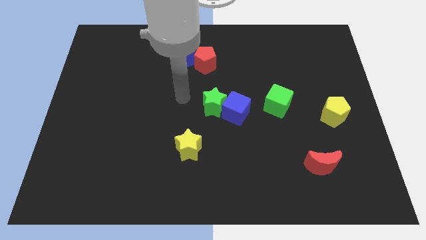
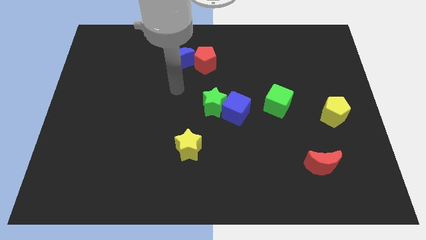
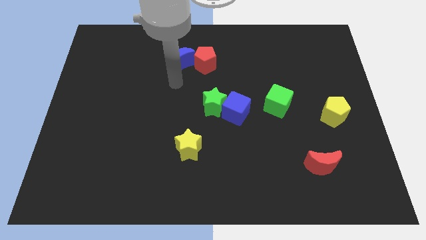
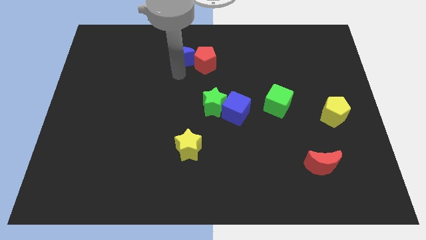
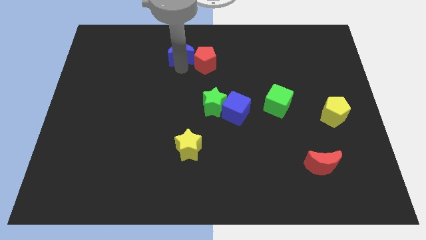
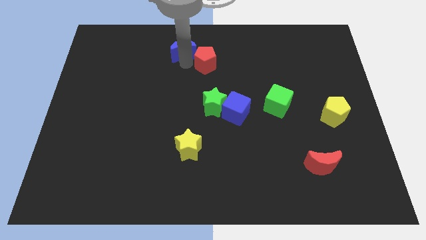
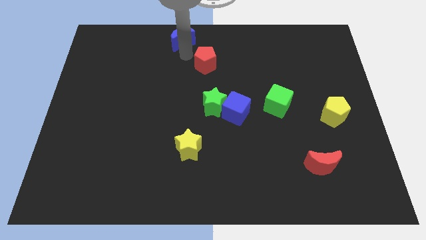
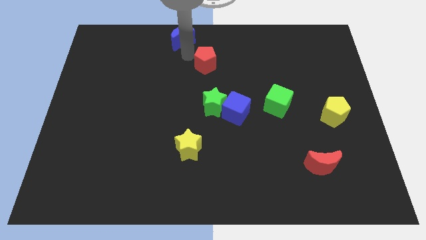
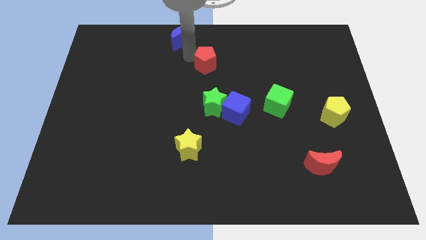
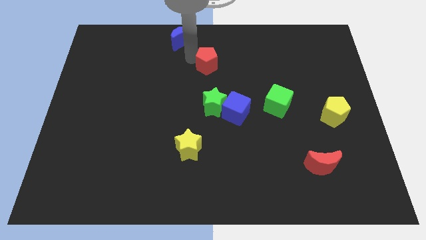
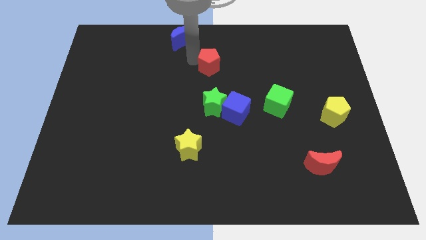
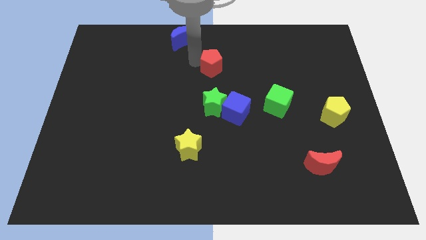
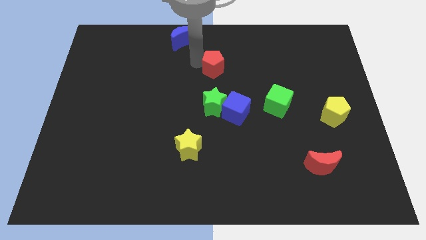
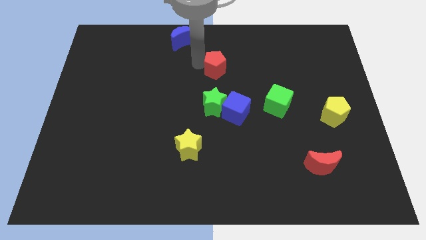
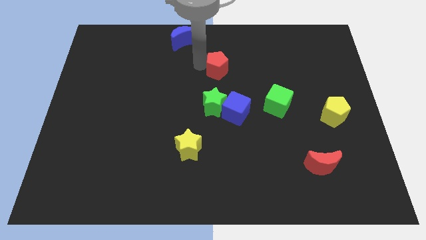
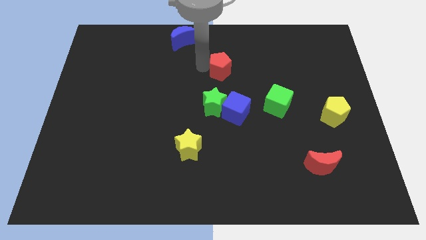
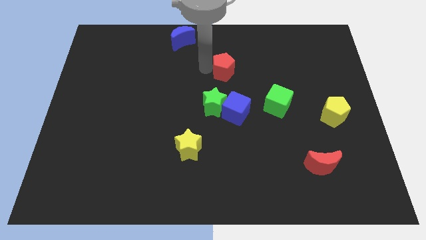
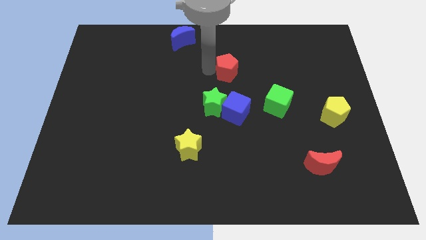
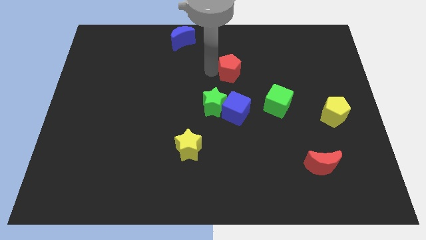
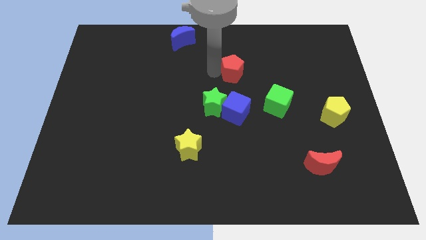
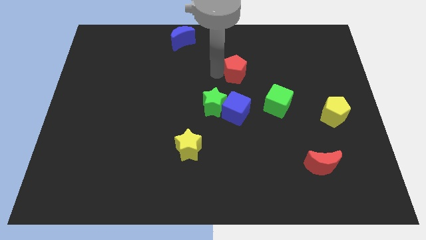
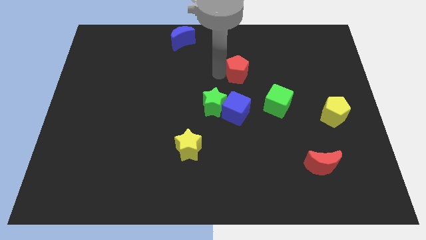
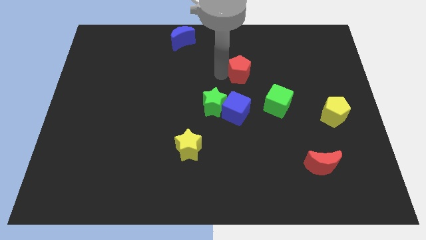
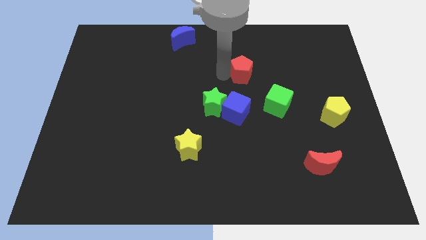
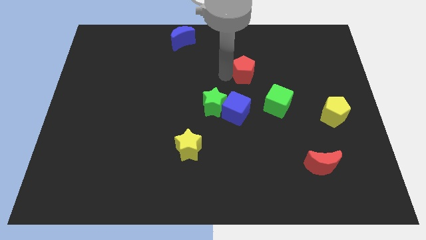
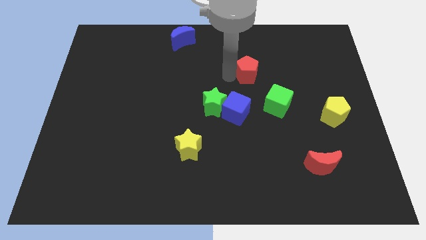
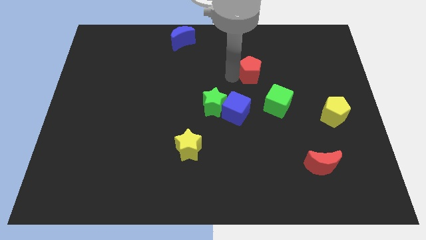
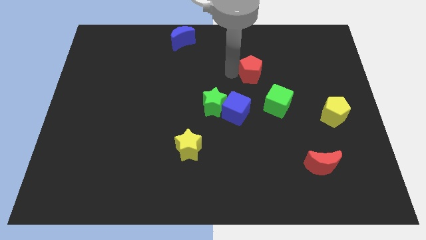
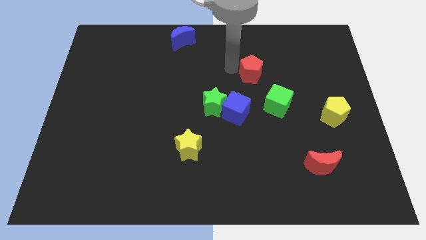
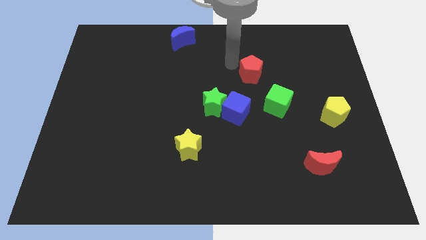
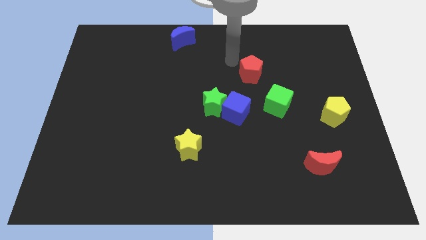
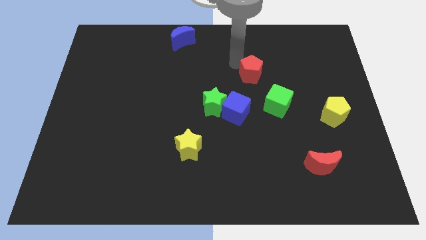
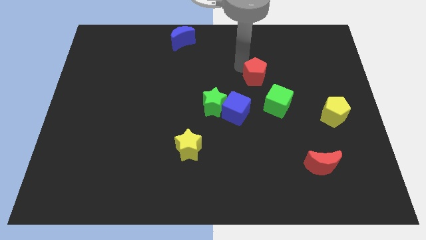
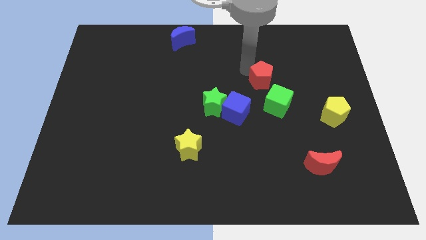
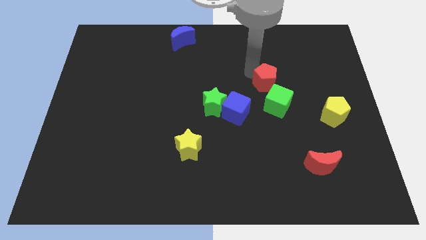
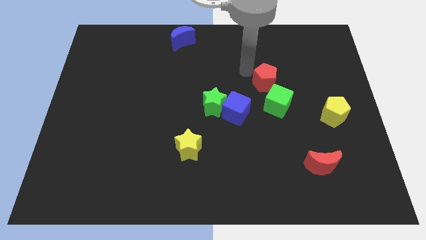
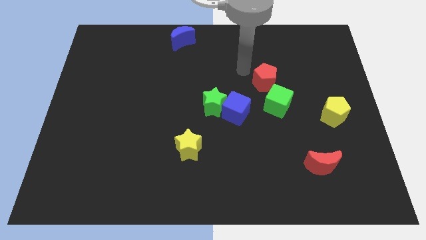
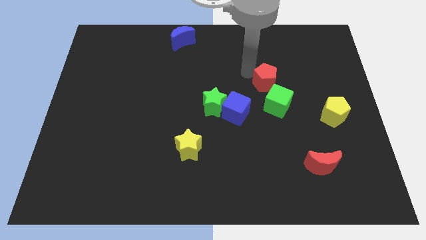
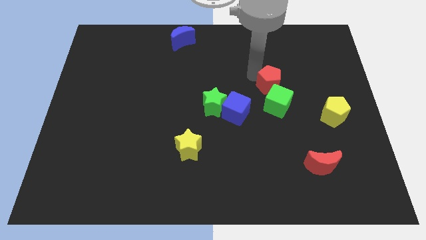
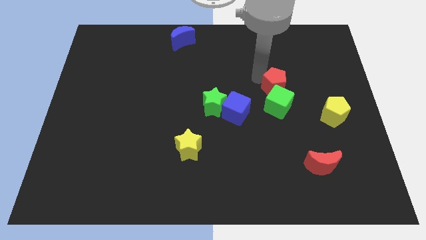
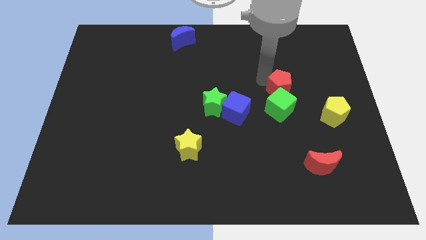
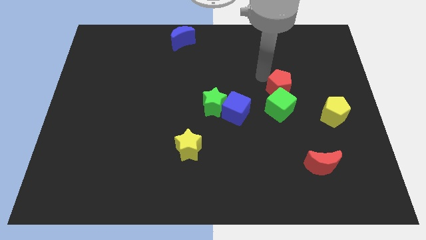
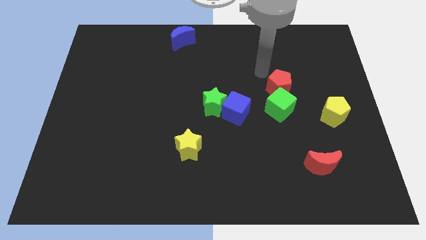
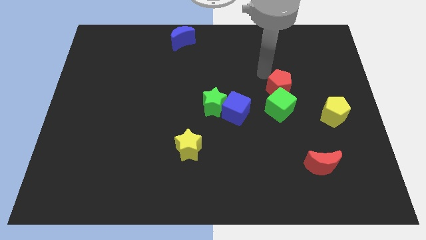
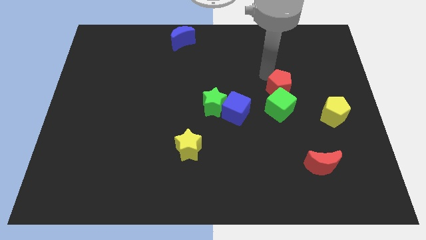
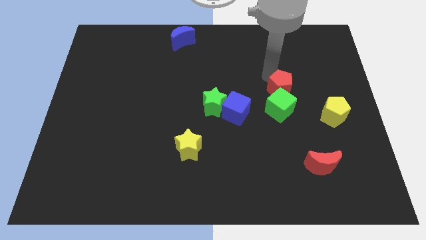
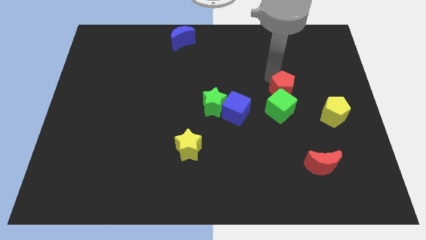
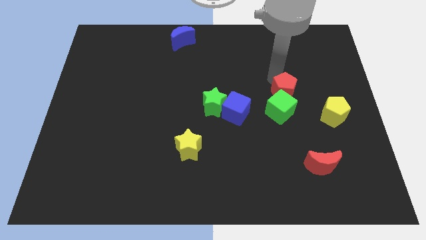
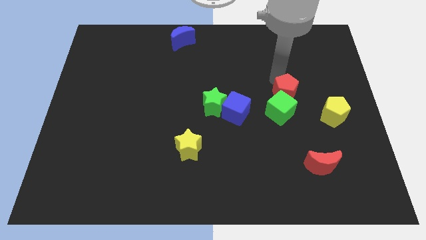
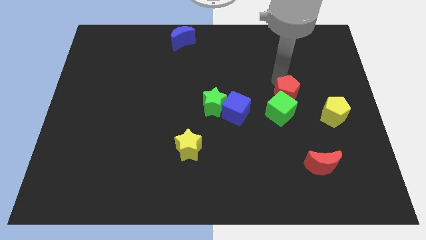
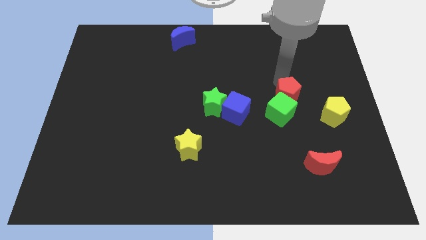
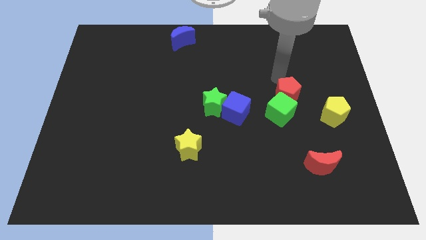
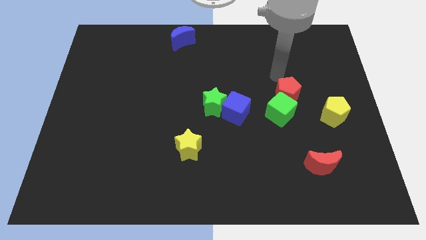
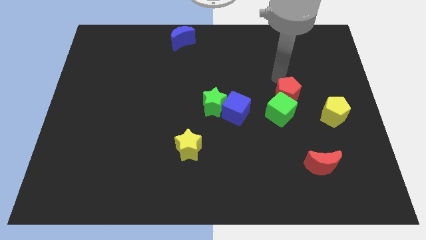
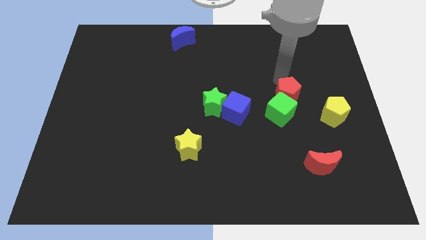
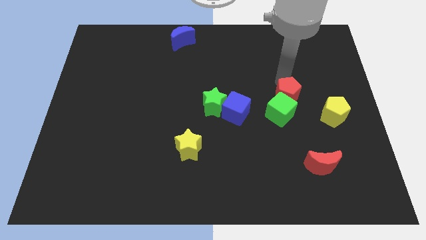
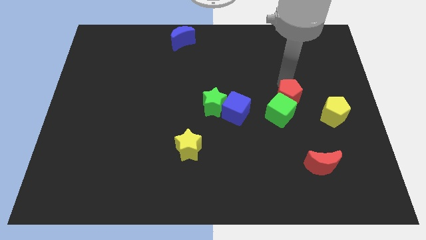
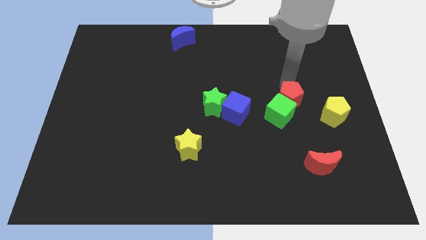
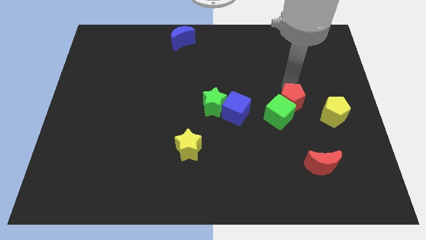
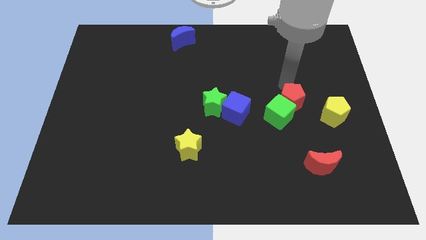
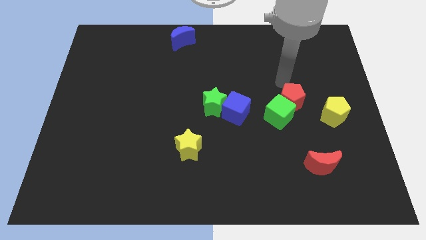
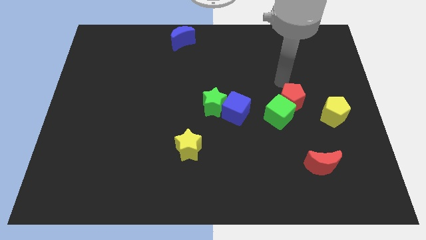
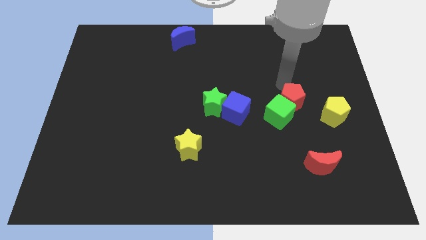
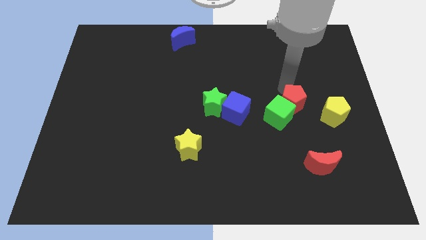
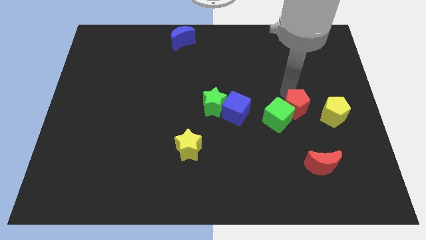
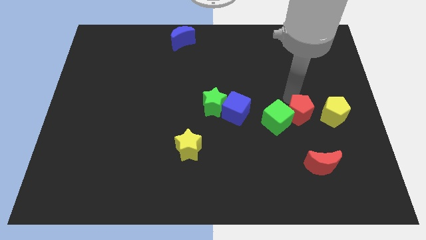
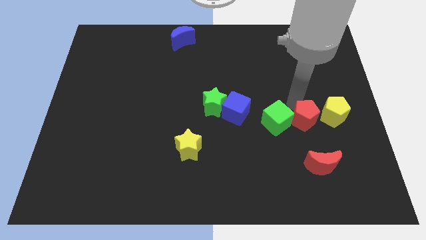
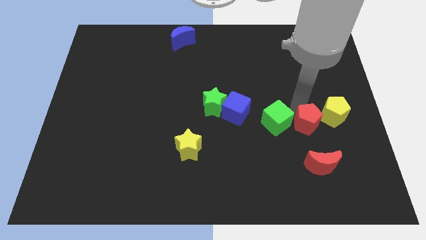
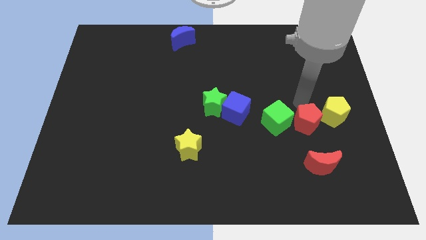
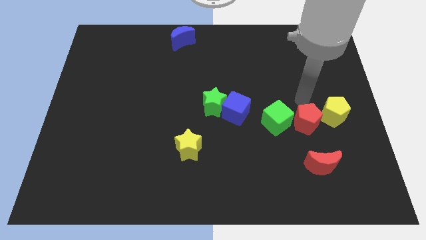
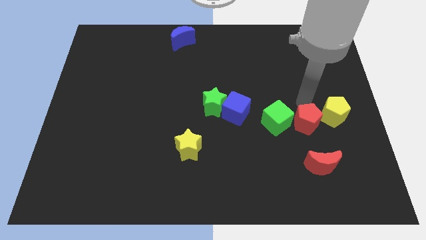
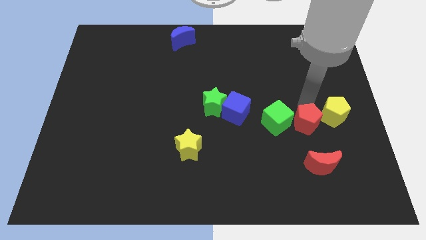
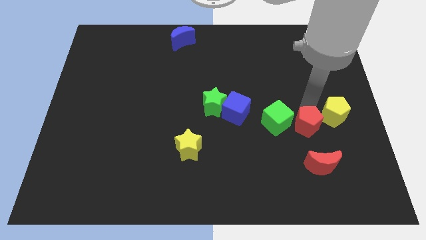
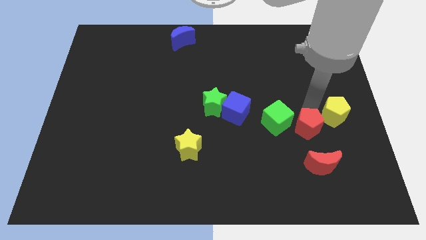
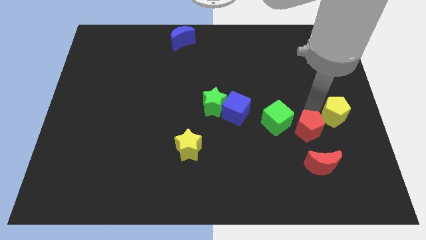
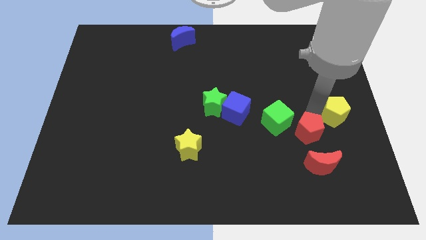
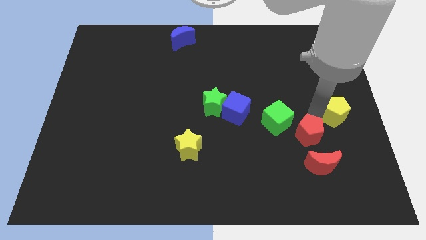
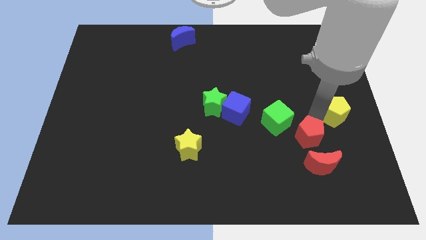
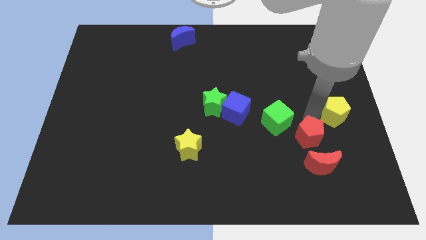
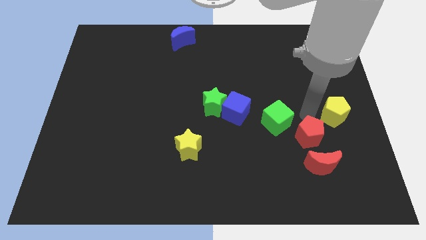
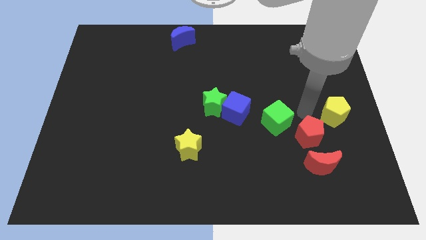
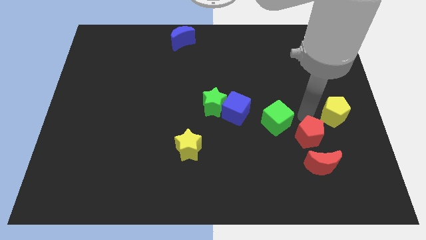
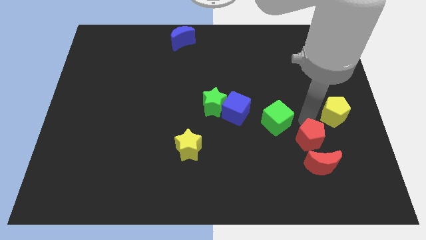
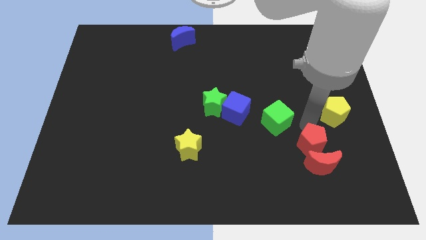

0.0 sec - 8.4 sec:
push the red pentagon close to the red moon
